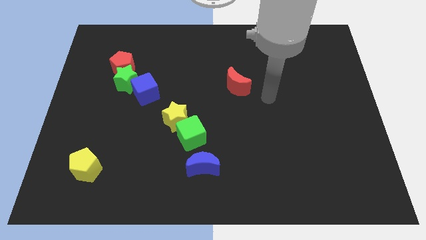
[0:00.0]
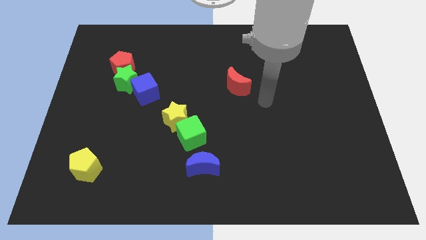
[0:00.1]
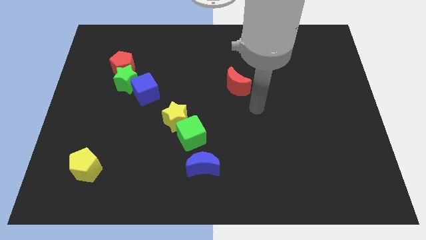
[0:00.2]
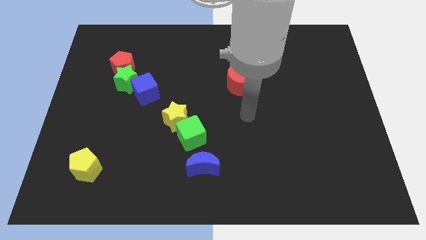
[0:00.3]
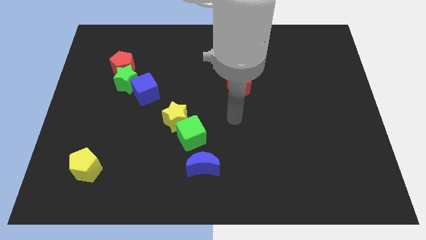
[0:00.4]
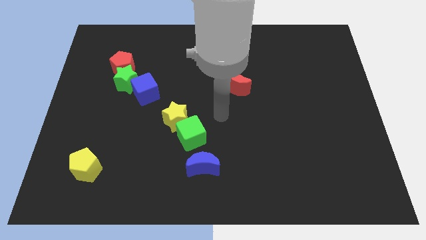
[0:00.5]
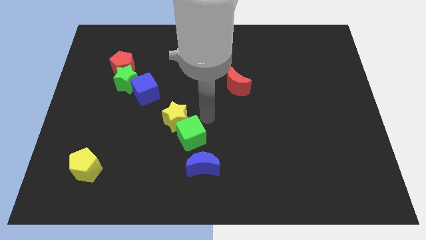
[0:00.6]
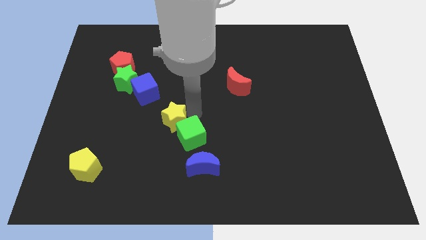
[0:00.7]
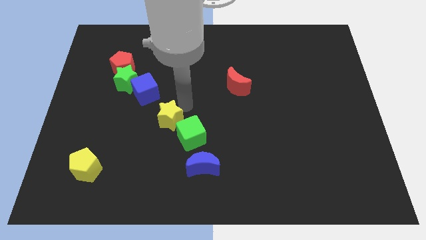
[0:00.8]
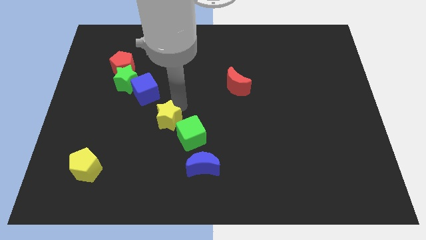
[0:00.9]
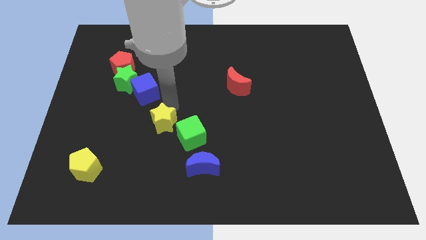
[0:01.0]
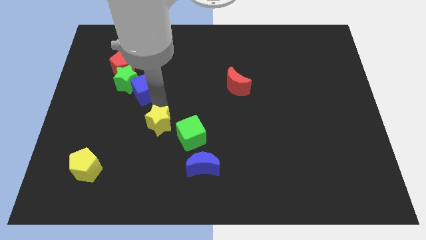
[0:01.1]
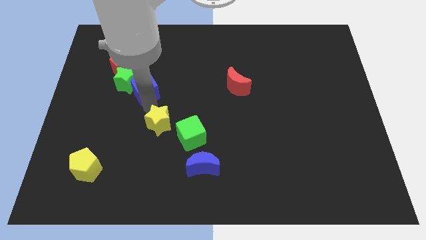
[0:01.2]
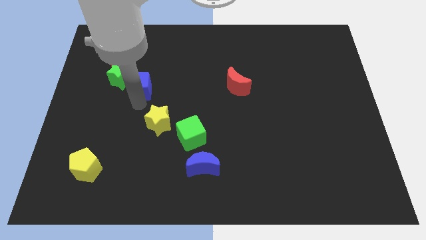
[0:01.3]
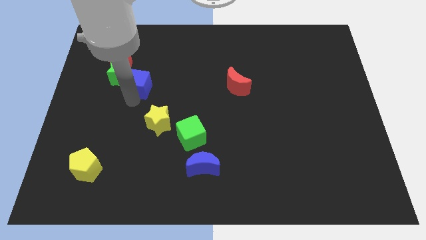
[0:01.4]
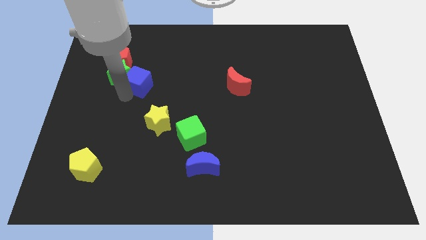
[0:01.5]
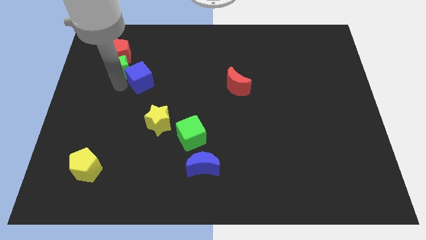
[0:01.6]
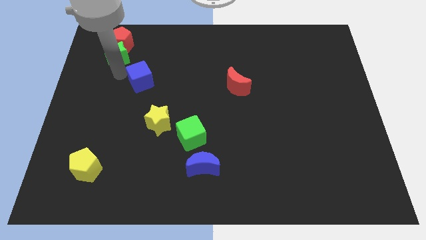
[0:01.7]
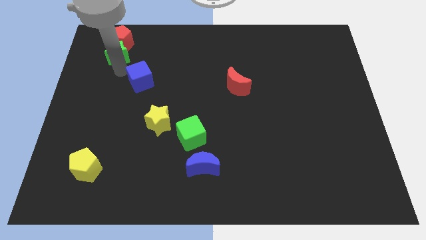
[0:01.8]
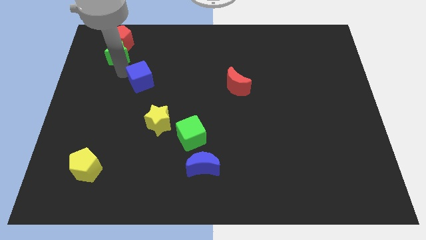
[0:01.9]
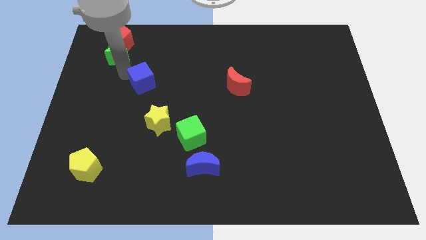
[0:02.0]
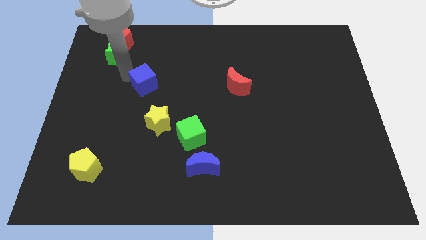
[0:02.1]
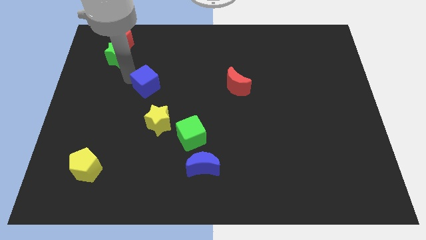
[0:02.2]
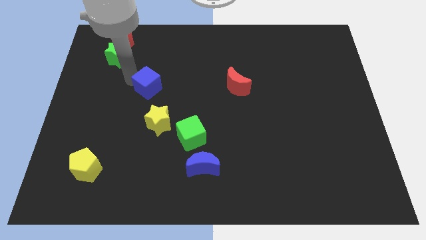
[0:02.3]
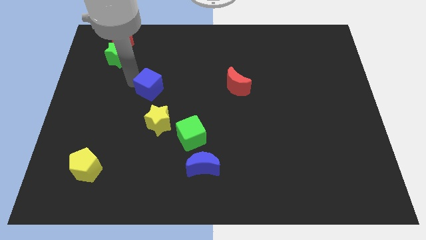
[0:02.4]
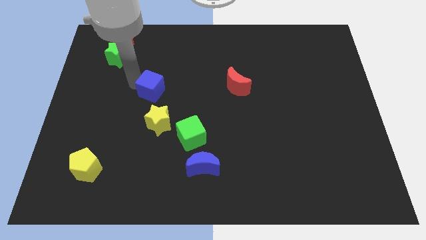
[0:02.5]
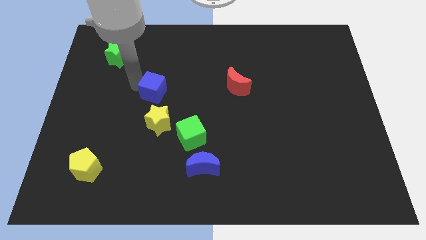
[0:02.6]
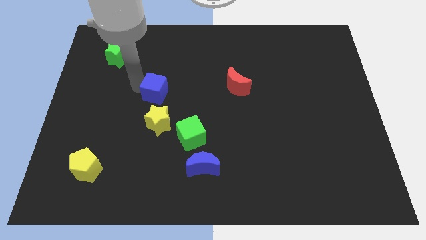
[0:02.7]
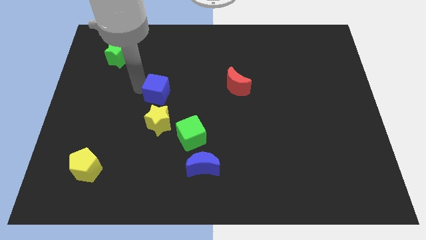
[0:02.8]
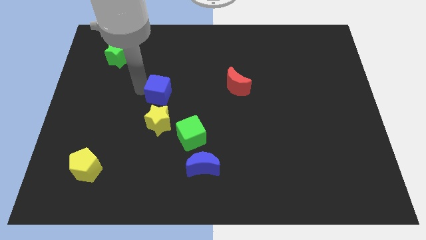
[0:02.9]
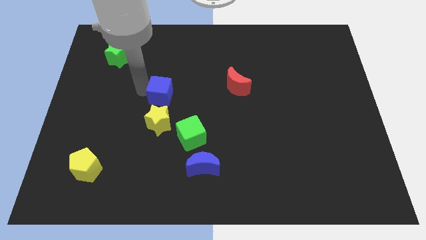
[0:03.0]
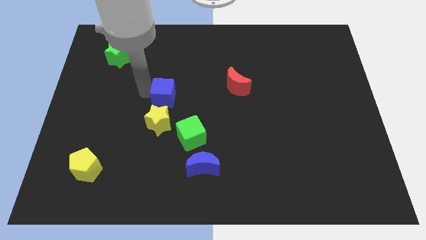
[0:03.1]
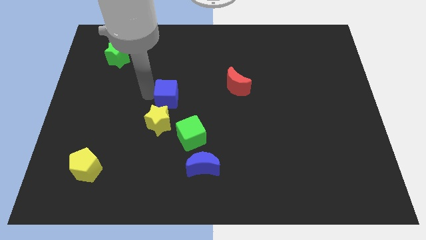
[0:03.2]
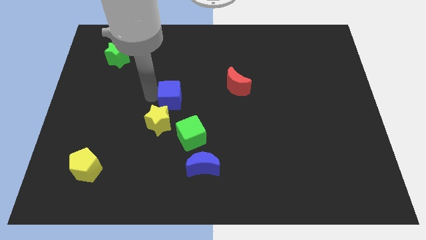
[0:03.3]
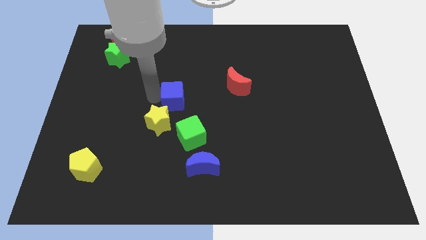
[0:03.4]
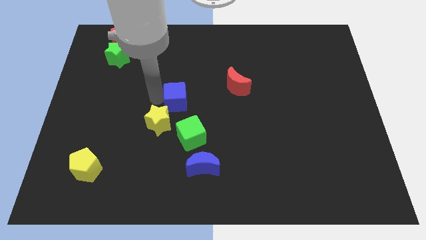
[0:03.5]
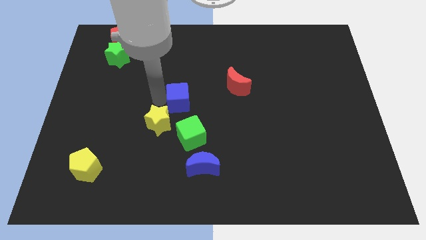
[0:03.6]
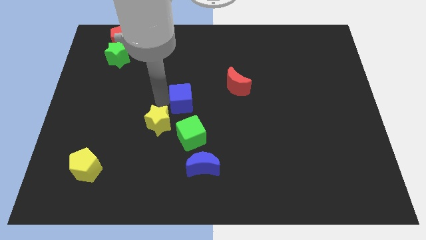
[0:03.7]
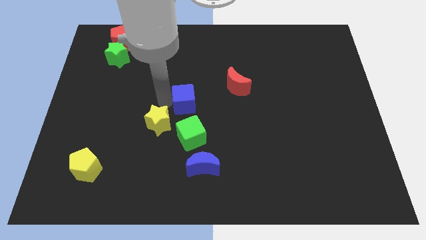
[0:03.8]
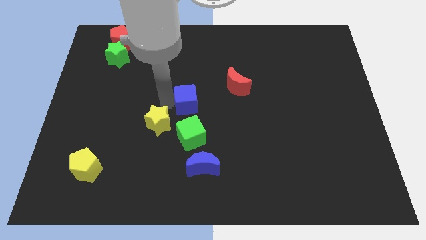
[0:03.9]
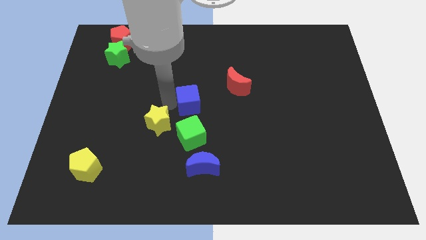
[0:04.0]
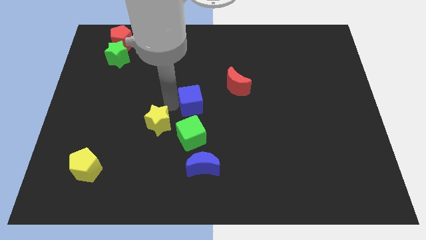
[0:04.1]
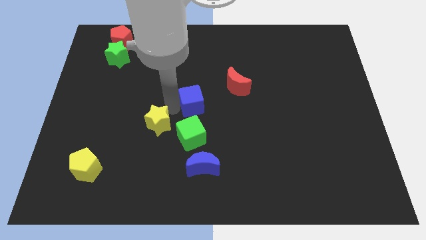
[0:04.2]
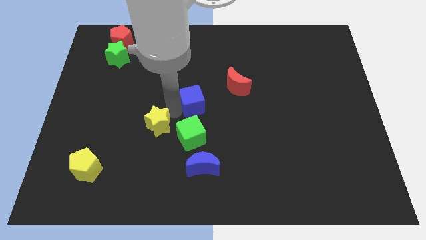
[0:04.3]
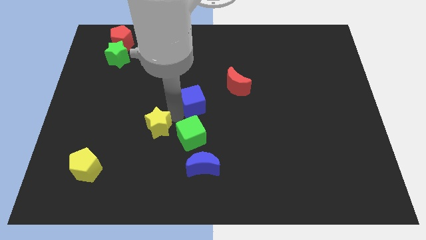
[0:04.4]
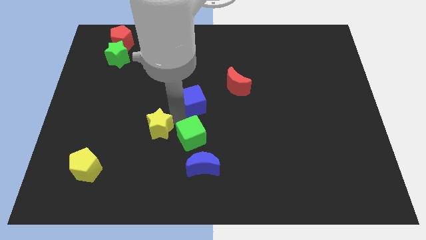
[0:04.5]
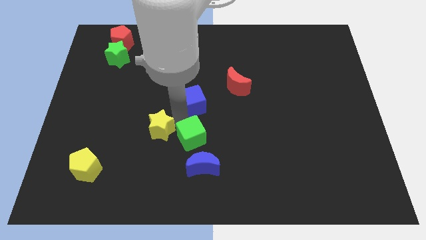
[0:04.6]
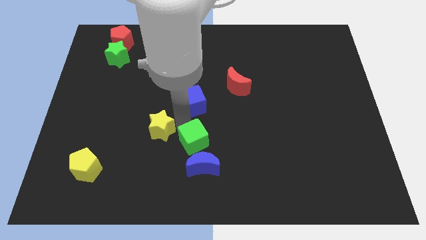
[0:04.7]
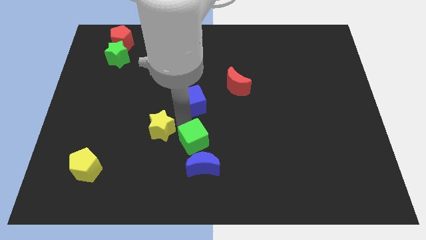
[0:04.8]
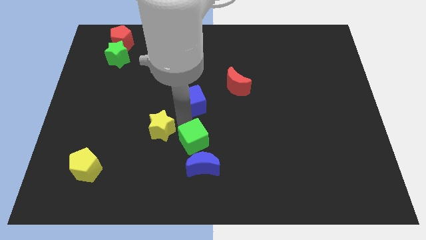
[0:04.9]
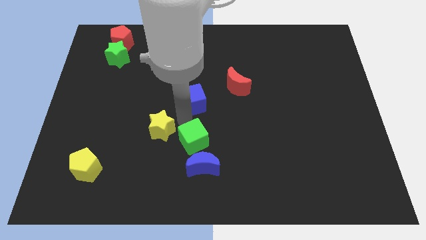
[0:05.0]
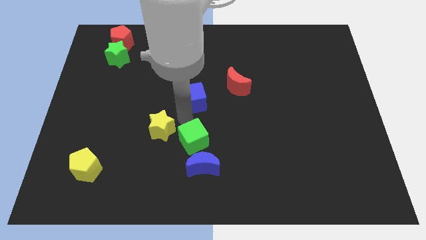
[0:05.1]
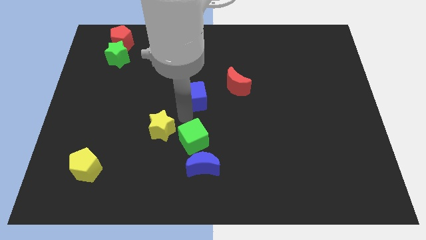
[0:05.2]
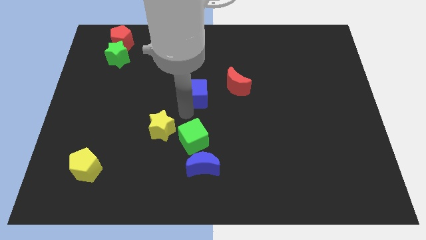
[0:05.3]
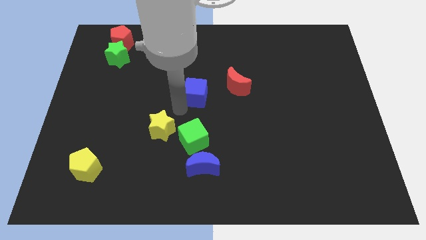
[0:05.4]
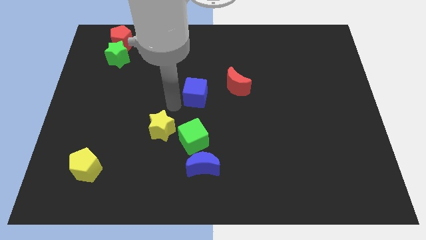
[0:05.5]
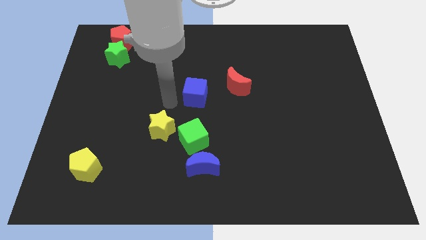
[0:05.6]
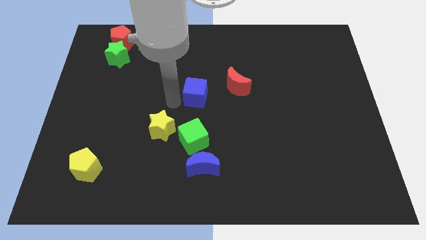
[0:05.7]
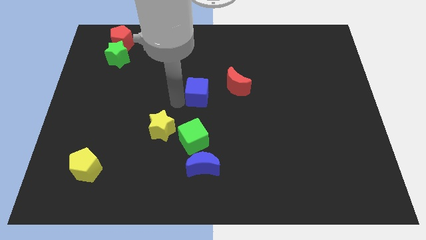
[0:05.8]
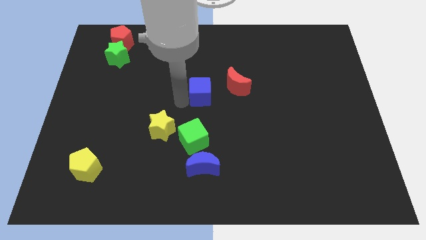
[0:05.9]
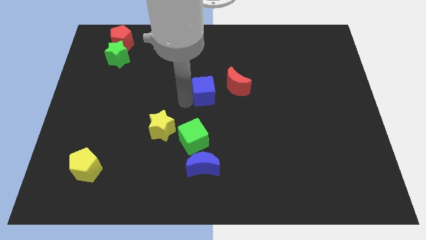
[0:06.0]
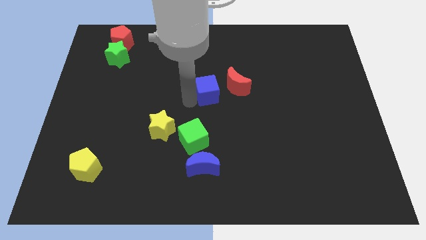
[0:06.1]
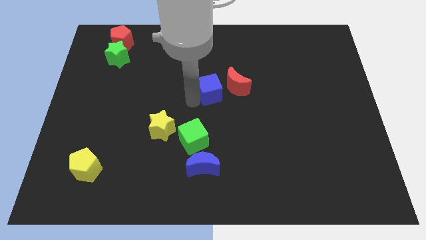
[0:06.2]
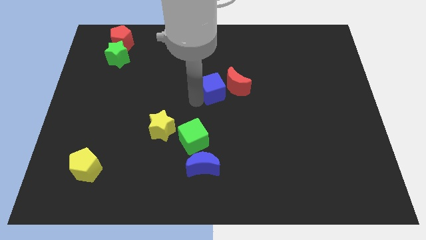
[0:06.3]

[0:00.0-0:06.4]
move the blue cube close to the red moon
